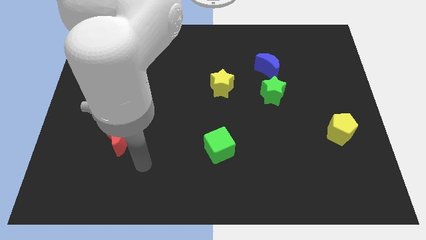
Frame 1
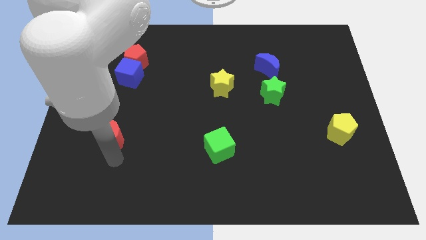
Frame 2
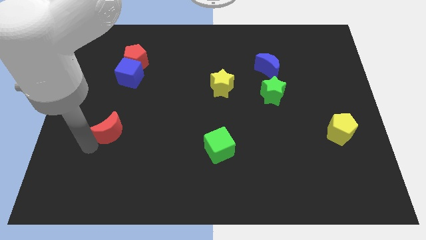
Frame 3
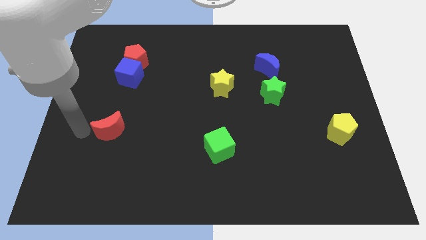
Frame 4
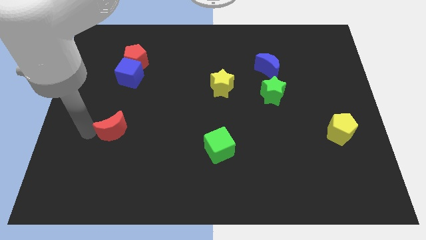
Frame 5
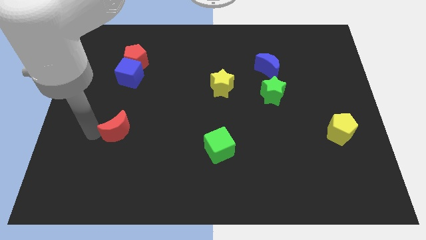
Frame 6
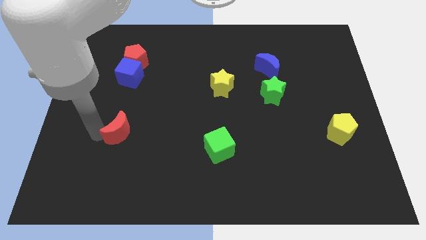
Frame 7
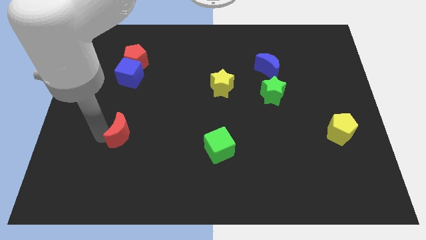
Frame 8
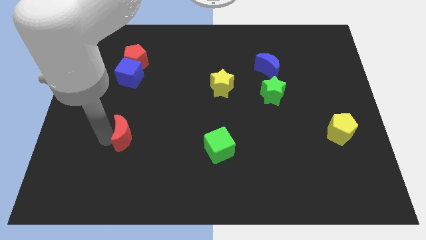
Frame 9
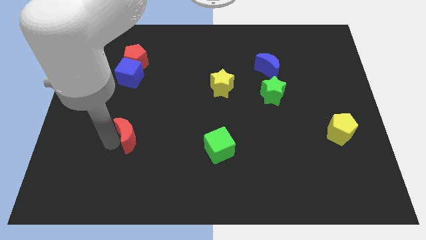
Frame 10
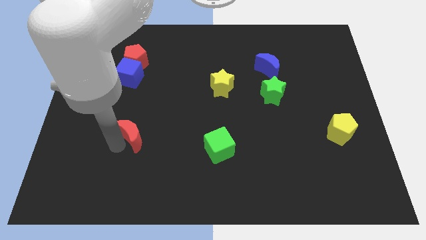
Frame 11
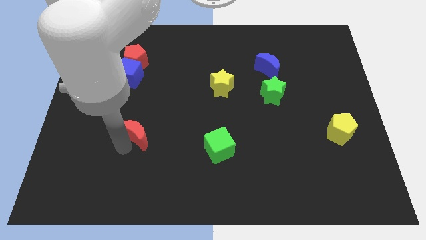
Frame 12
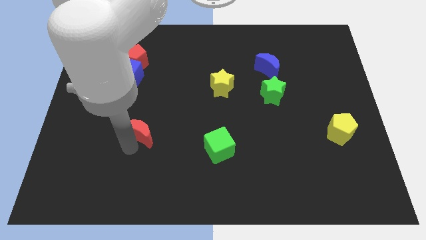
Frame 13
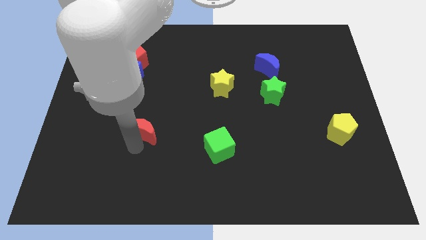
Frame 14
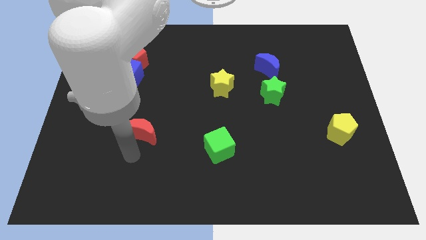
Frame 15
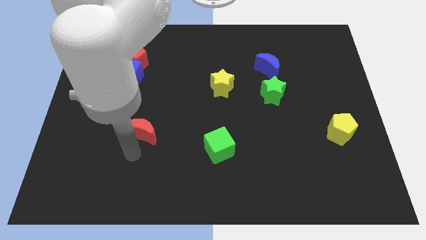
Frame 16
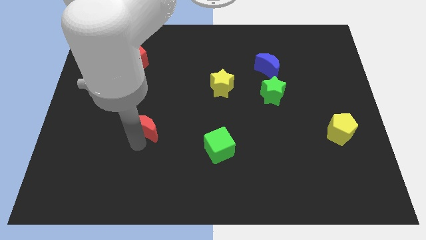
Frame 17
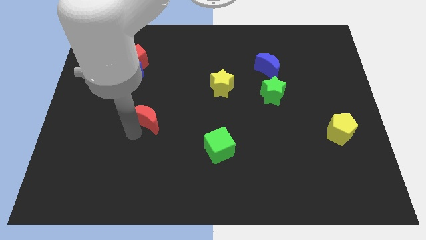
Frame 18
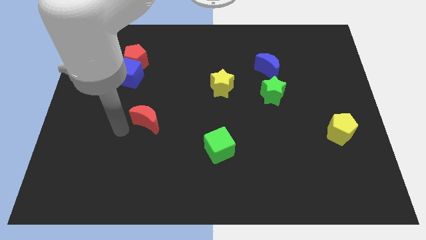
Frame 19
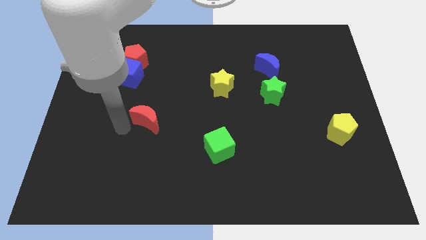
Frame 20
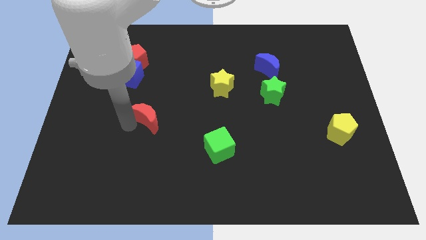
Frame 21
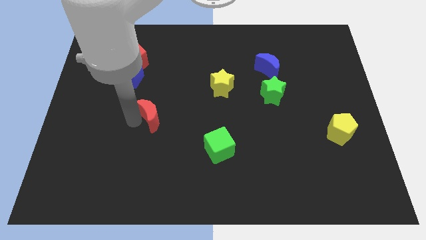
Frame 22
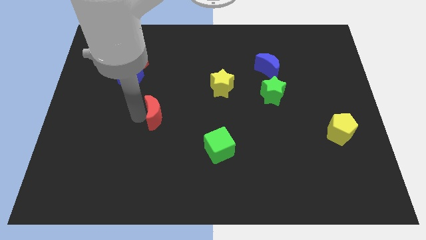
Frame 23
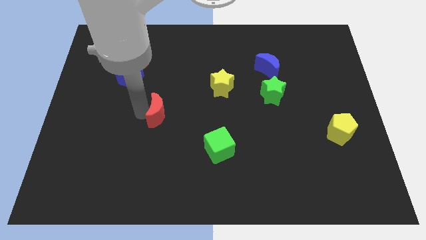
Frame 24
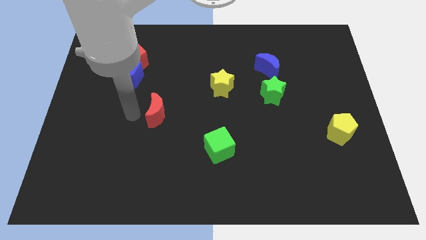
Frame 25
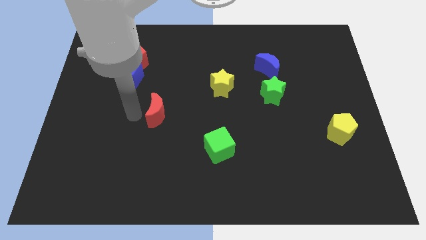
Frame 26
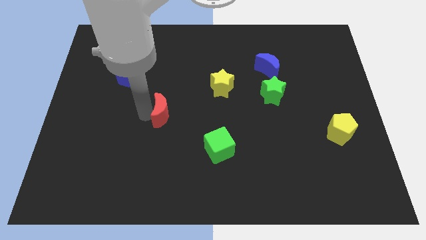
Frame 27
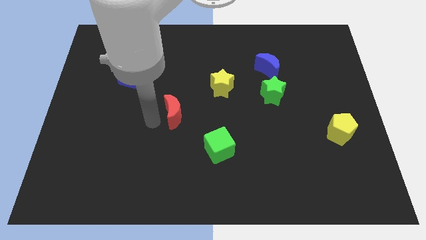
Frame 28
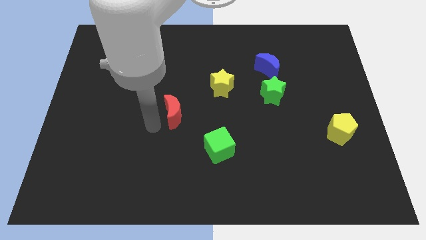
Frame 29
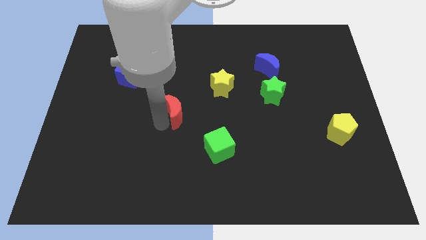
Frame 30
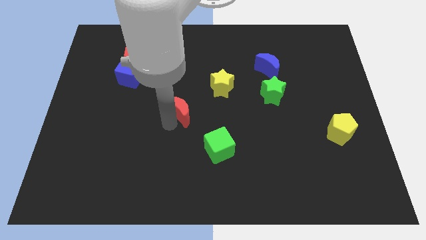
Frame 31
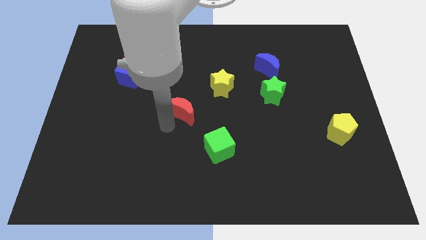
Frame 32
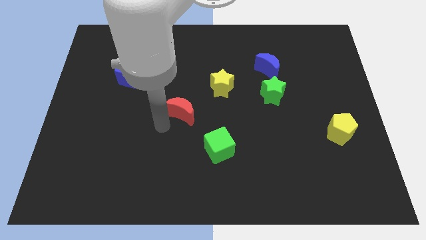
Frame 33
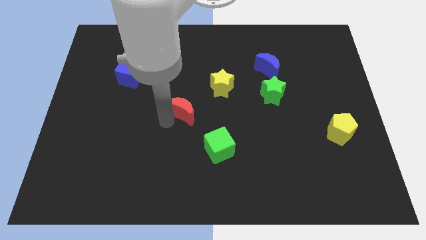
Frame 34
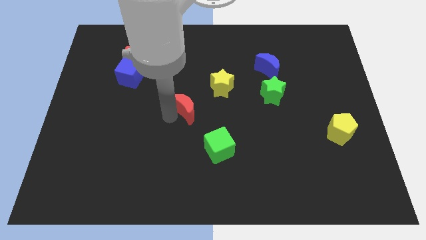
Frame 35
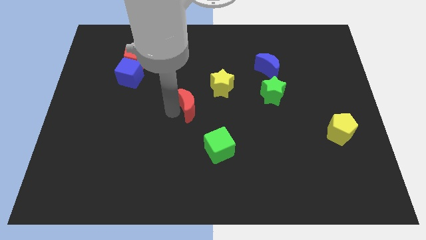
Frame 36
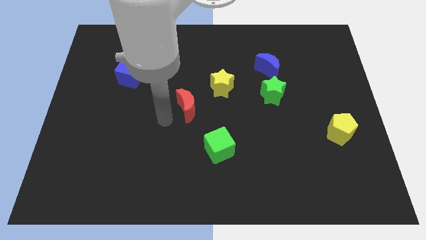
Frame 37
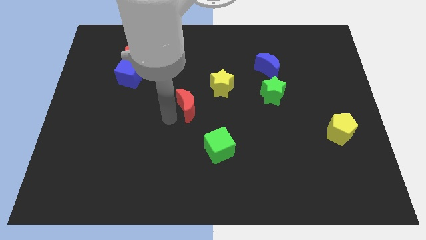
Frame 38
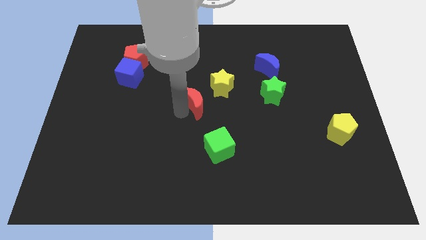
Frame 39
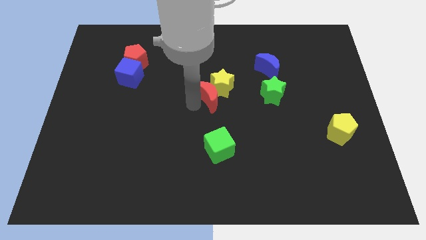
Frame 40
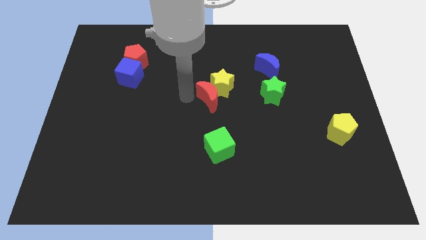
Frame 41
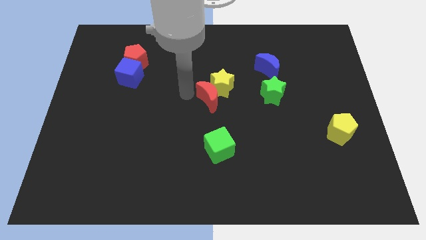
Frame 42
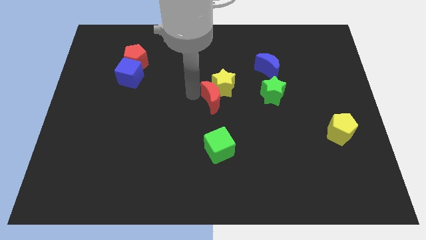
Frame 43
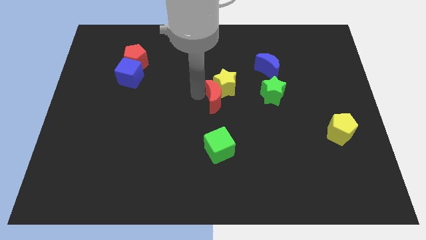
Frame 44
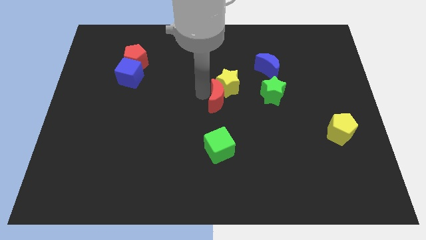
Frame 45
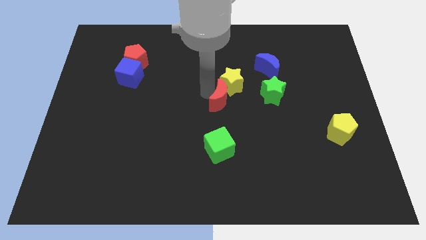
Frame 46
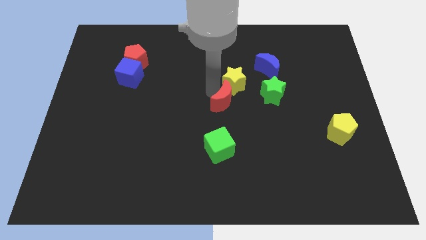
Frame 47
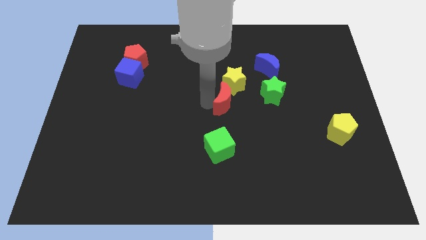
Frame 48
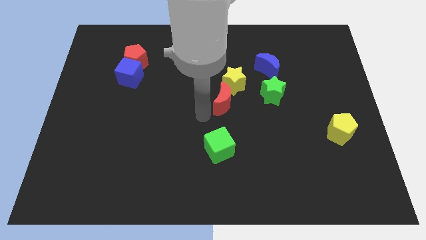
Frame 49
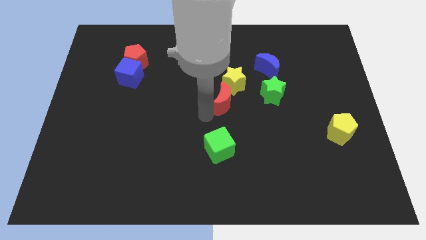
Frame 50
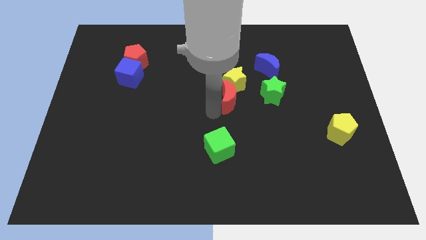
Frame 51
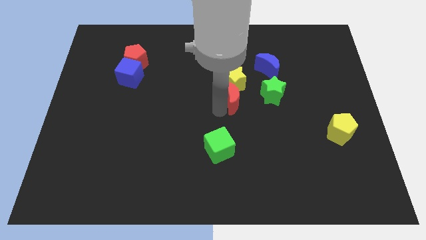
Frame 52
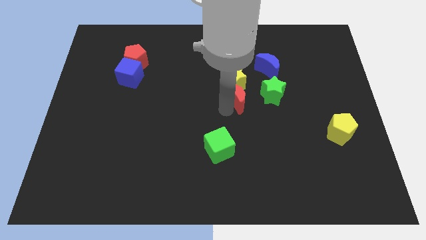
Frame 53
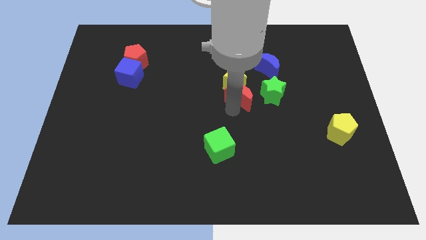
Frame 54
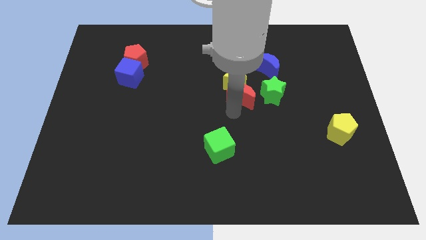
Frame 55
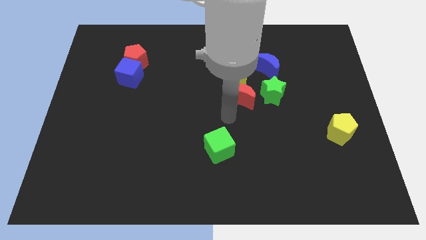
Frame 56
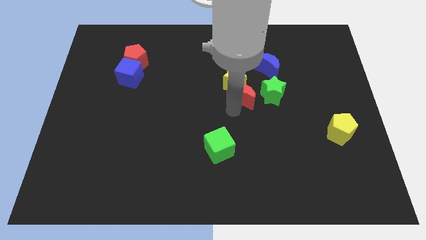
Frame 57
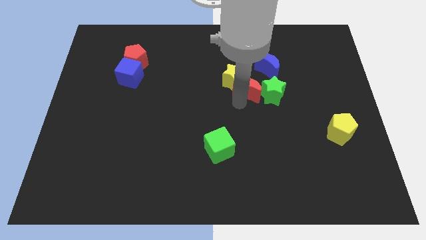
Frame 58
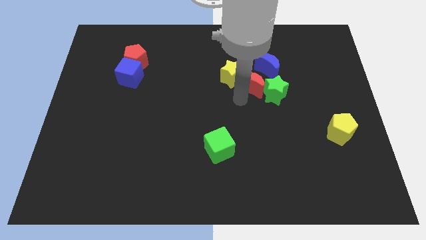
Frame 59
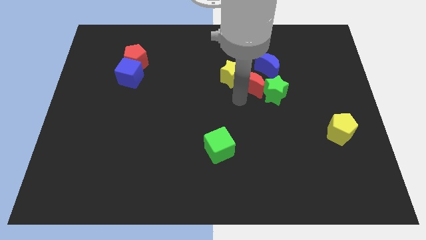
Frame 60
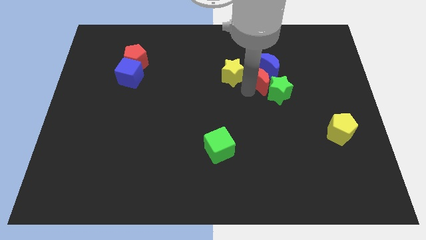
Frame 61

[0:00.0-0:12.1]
push the red moon towards the blue moon

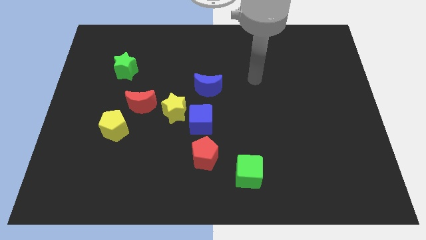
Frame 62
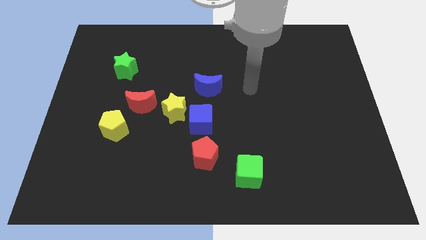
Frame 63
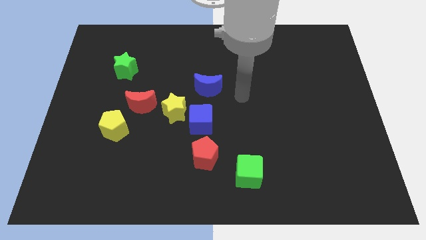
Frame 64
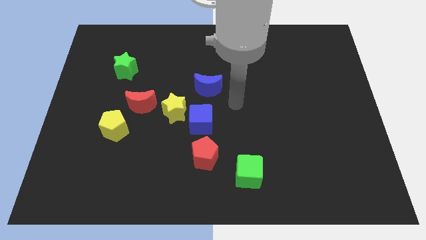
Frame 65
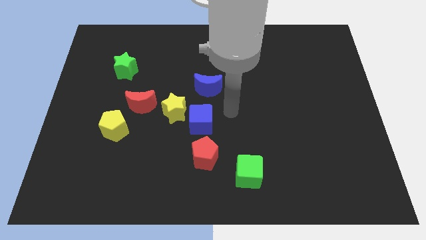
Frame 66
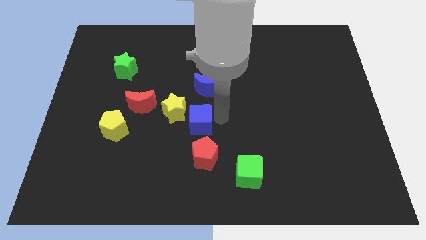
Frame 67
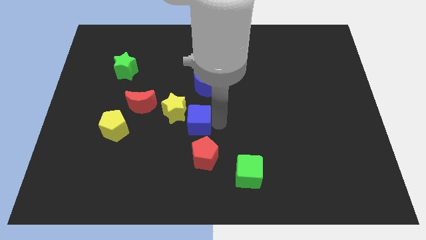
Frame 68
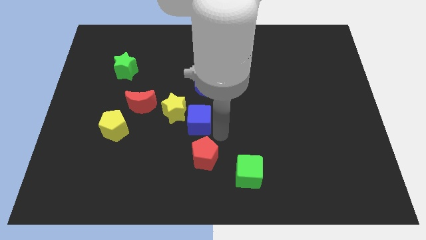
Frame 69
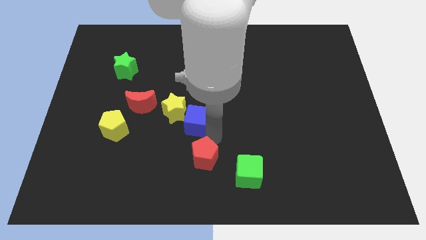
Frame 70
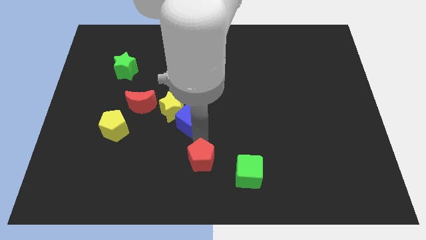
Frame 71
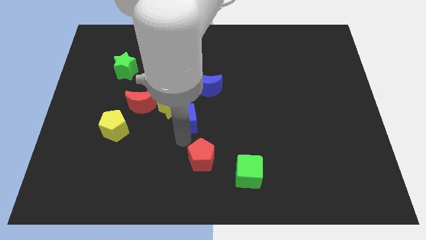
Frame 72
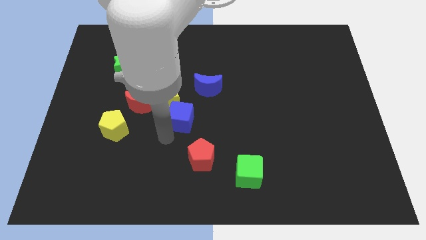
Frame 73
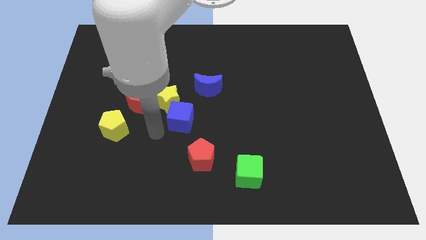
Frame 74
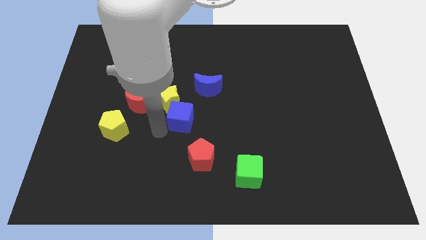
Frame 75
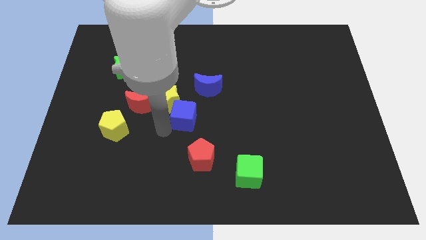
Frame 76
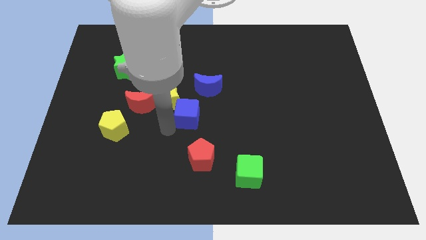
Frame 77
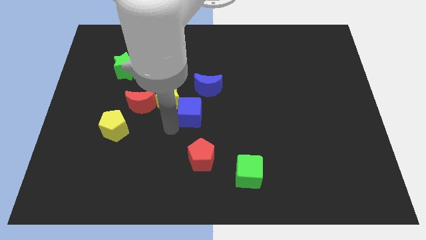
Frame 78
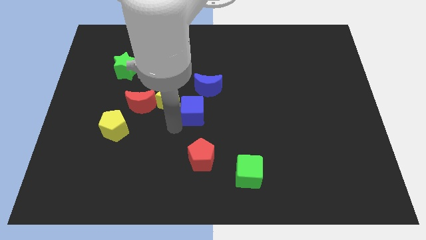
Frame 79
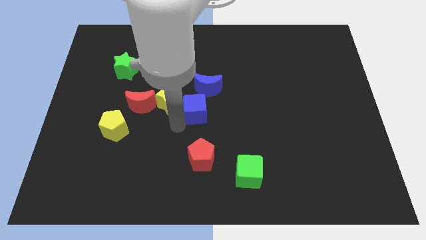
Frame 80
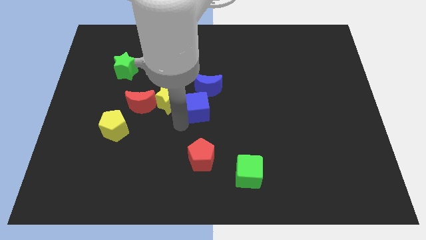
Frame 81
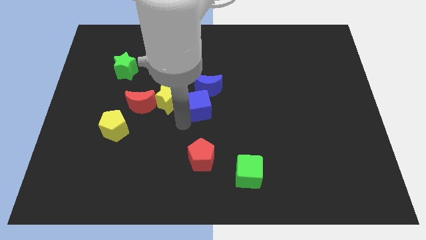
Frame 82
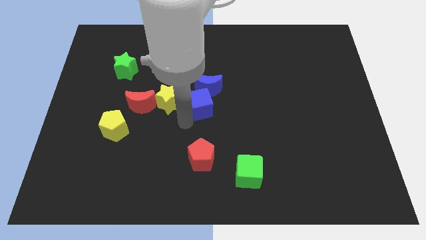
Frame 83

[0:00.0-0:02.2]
put the blue cube towards the blue moon
